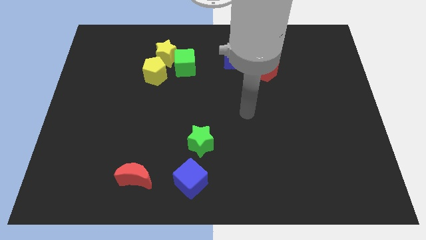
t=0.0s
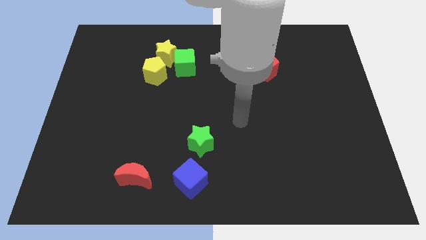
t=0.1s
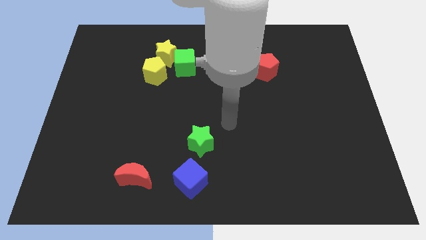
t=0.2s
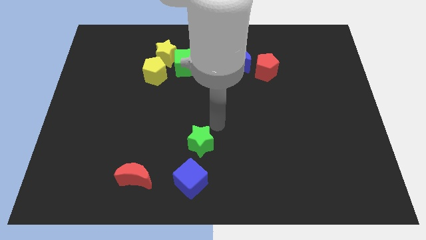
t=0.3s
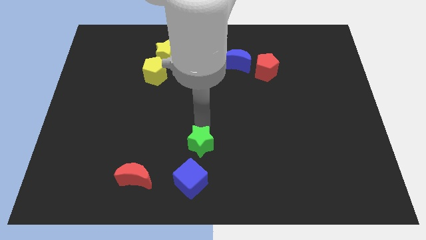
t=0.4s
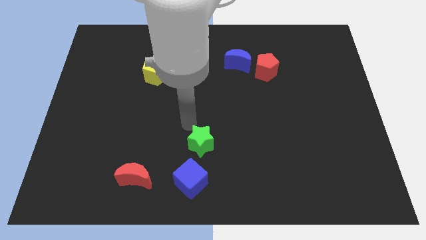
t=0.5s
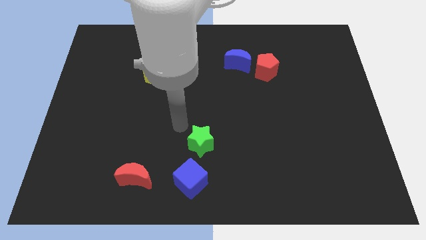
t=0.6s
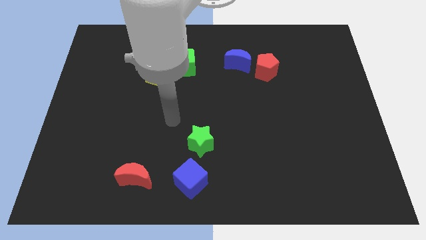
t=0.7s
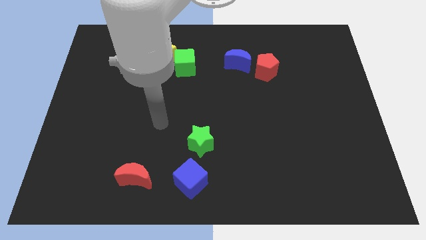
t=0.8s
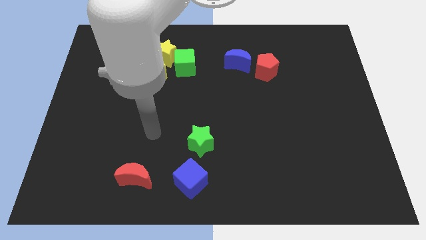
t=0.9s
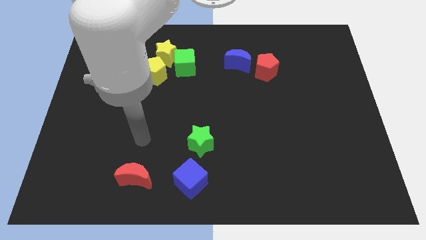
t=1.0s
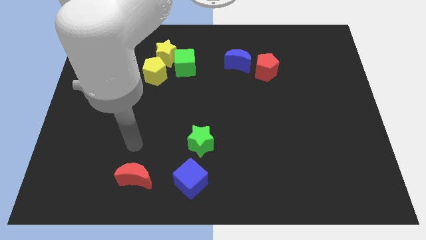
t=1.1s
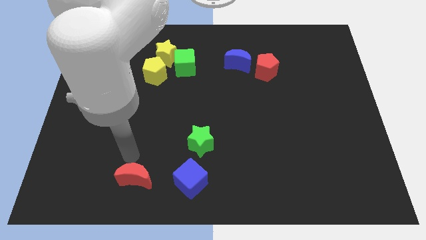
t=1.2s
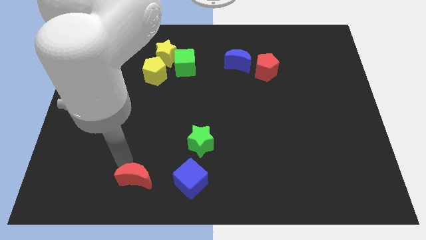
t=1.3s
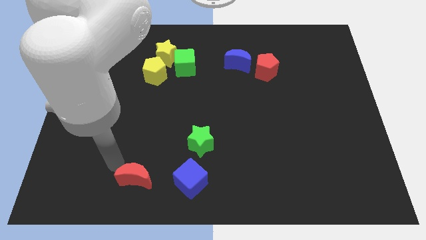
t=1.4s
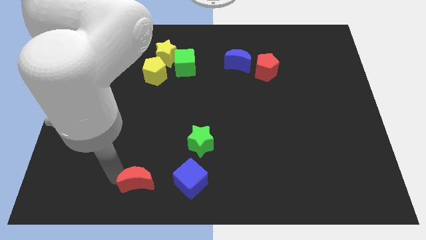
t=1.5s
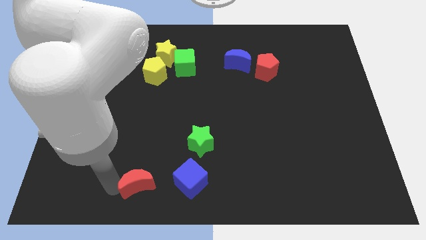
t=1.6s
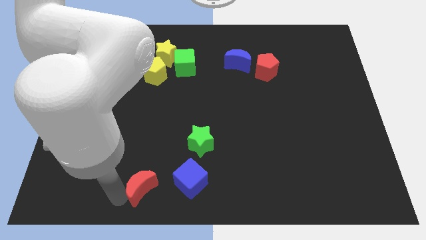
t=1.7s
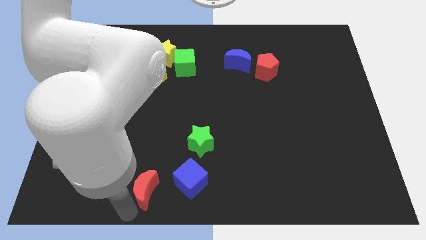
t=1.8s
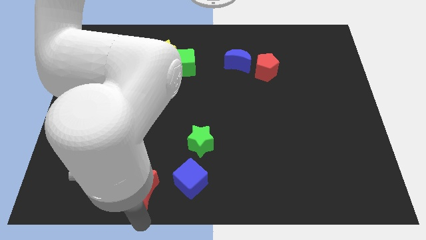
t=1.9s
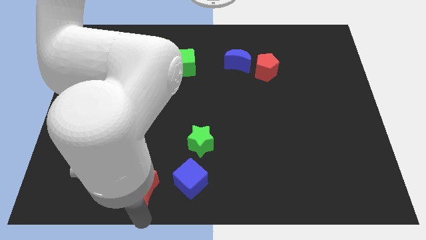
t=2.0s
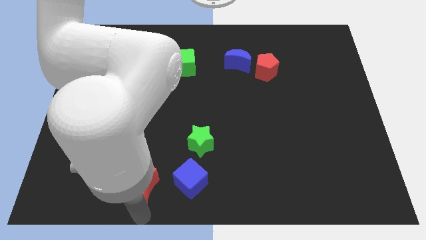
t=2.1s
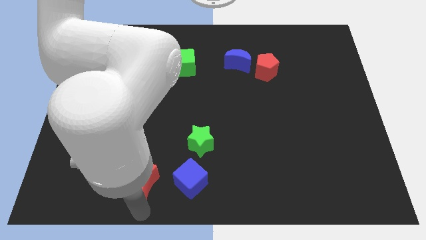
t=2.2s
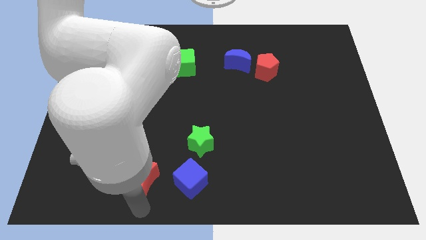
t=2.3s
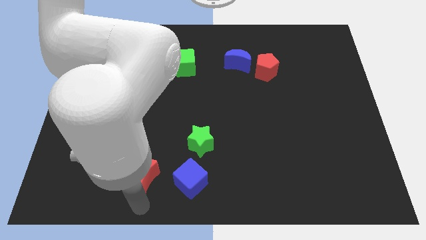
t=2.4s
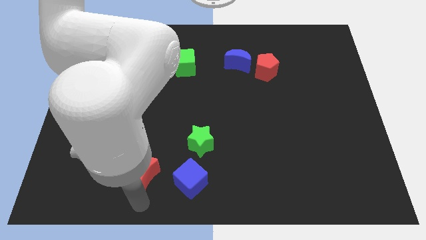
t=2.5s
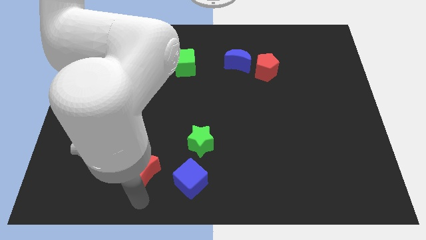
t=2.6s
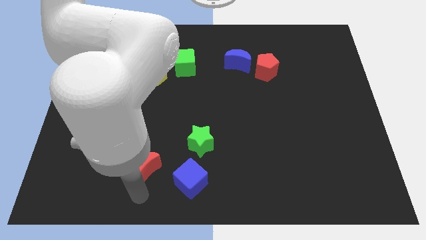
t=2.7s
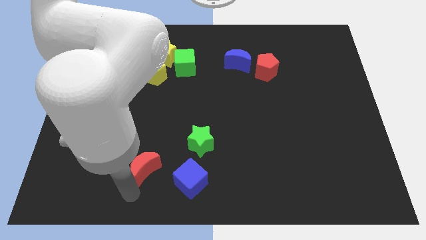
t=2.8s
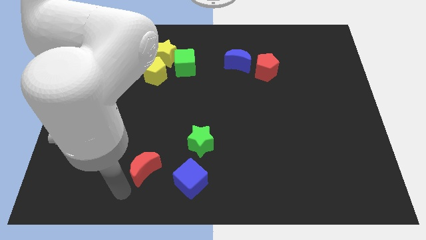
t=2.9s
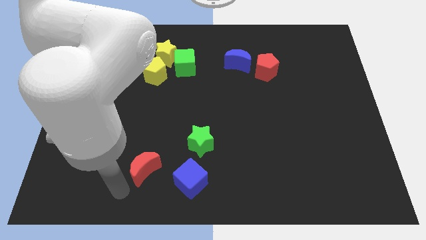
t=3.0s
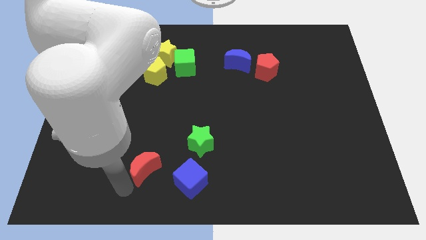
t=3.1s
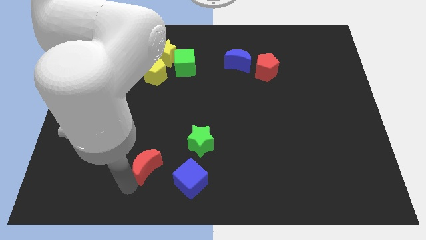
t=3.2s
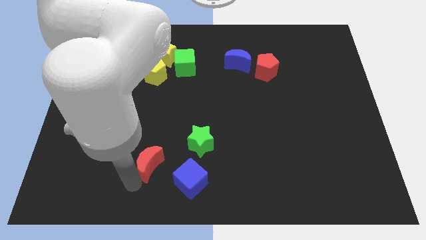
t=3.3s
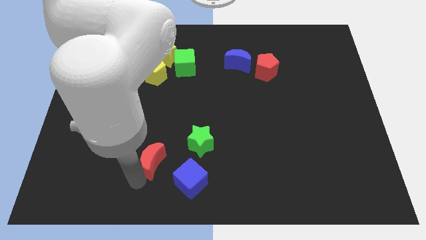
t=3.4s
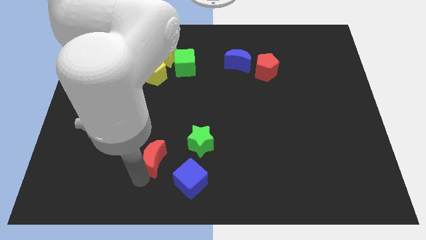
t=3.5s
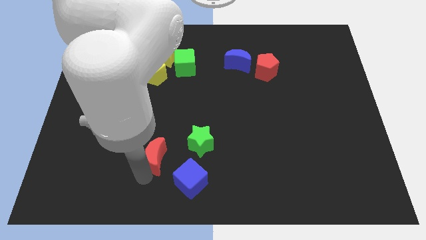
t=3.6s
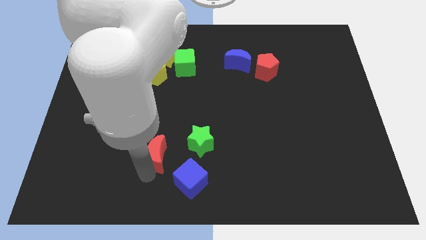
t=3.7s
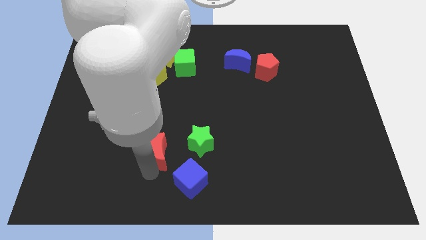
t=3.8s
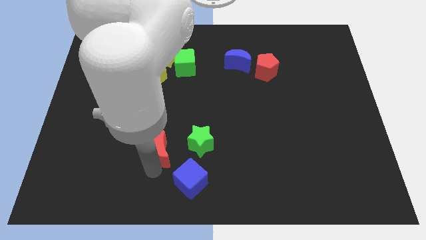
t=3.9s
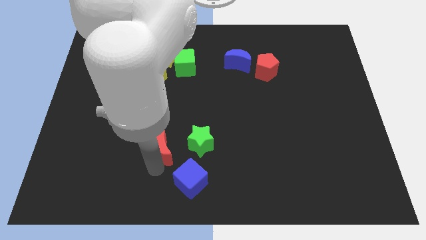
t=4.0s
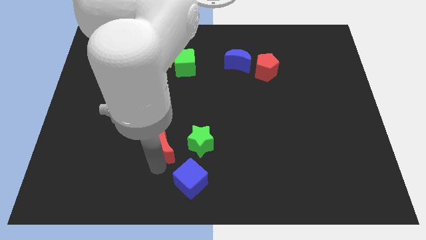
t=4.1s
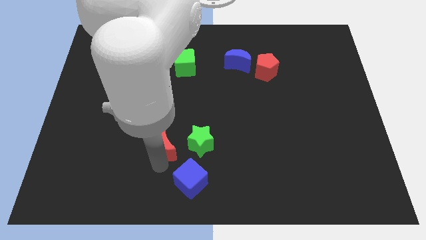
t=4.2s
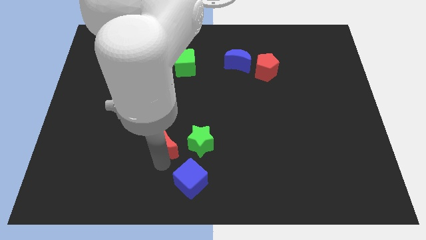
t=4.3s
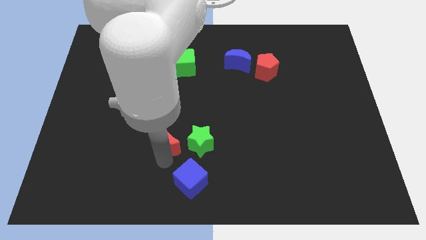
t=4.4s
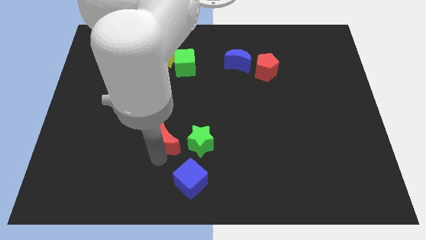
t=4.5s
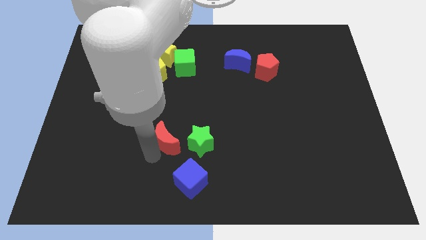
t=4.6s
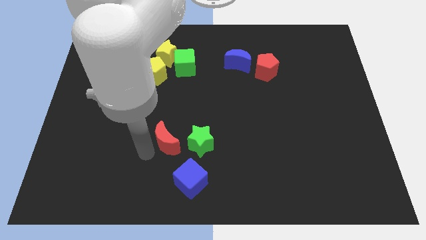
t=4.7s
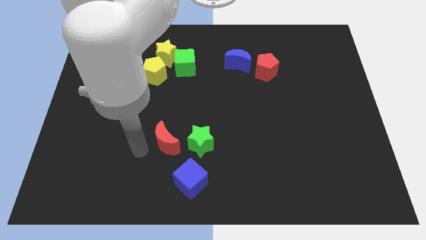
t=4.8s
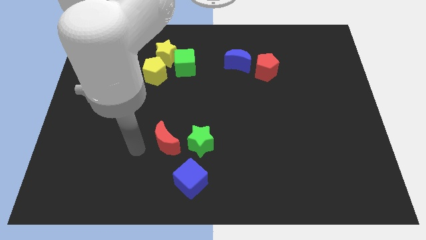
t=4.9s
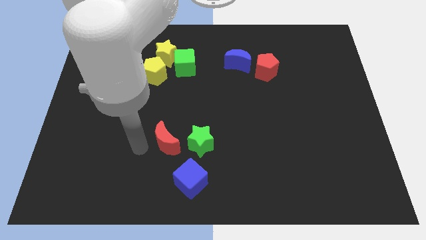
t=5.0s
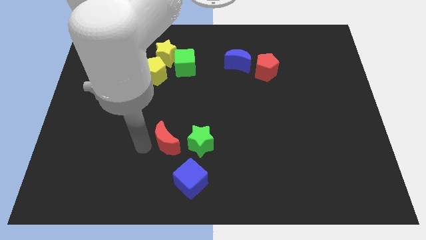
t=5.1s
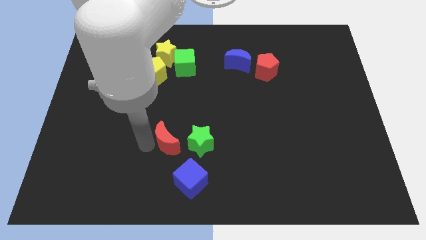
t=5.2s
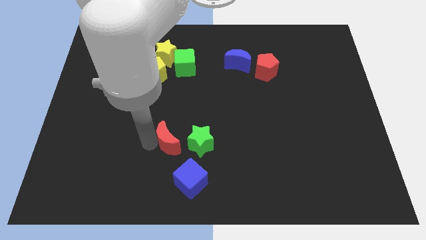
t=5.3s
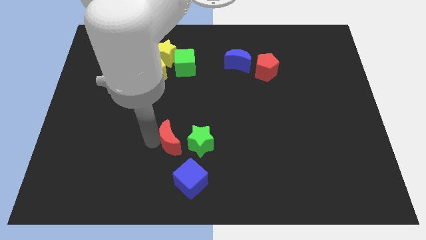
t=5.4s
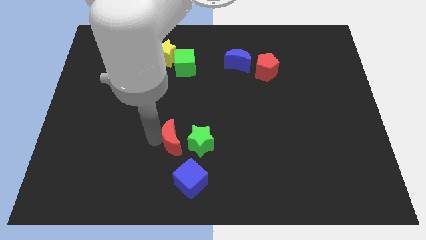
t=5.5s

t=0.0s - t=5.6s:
move the red moon to the top of the blue cube

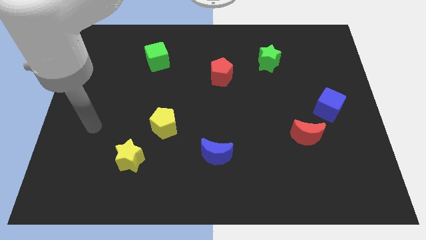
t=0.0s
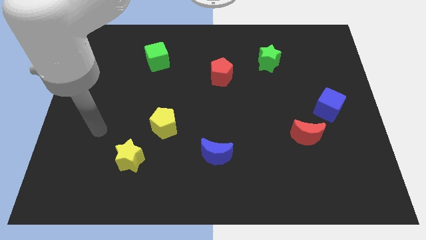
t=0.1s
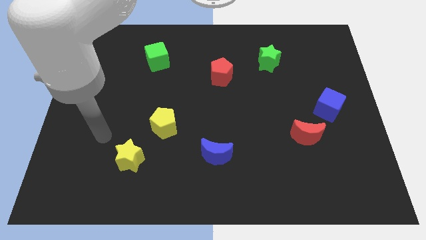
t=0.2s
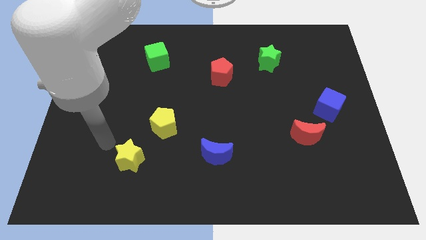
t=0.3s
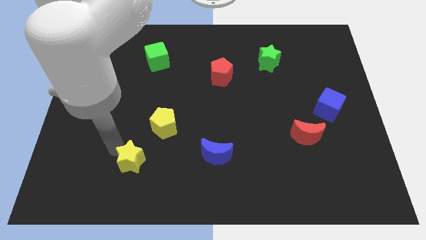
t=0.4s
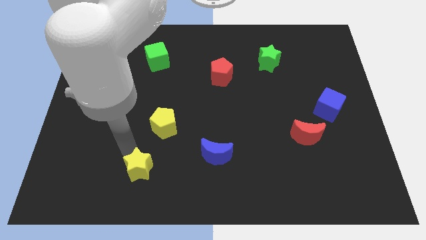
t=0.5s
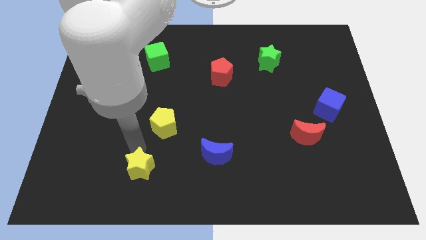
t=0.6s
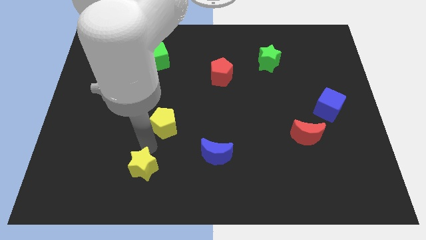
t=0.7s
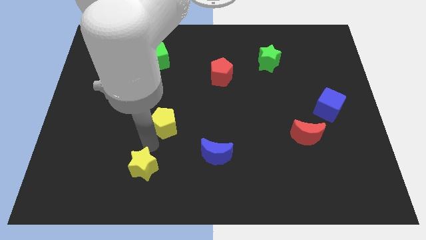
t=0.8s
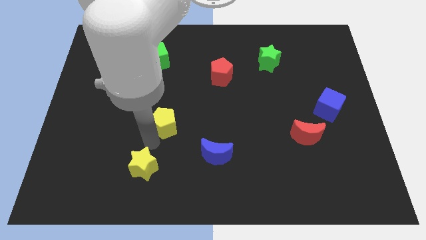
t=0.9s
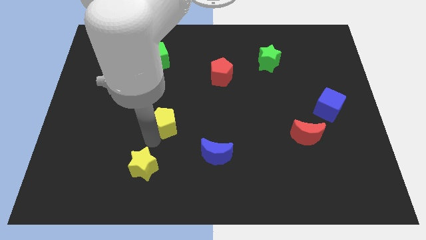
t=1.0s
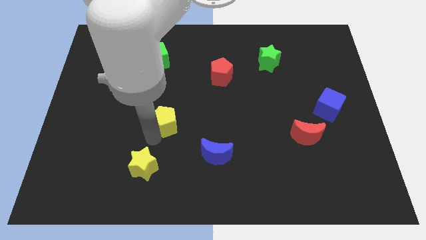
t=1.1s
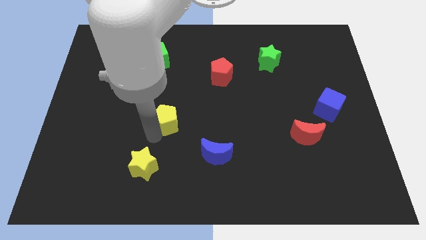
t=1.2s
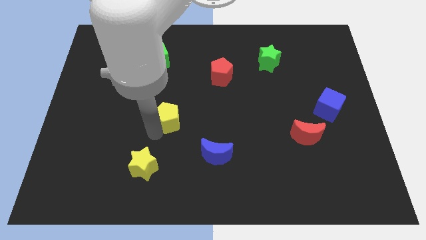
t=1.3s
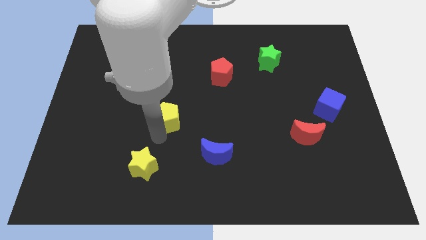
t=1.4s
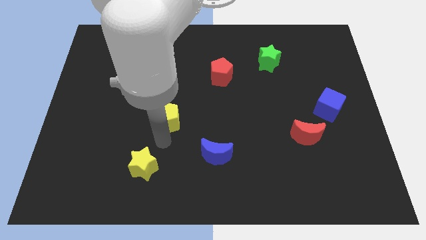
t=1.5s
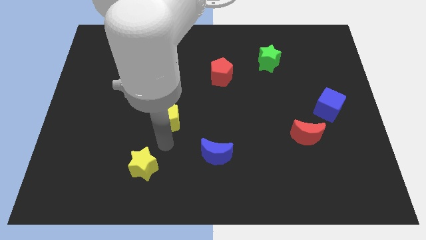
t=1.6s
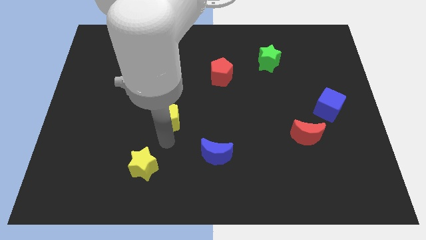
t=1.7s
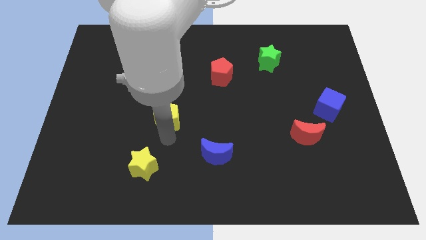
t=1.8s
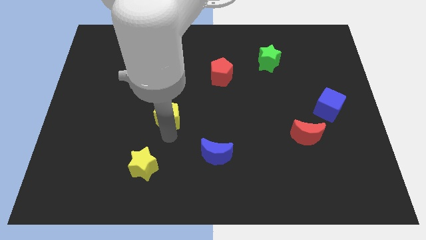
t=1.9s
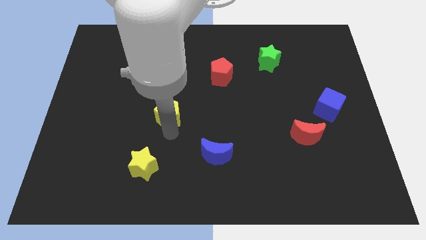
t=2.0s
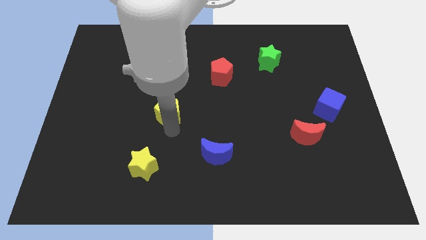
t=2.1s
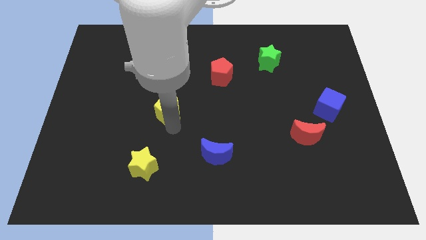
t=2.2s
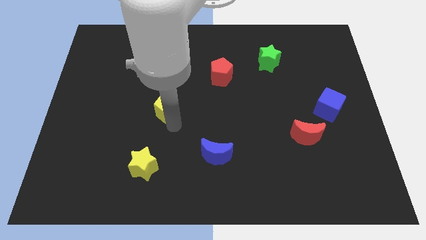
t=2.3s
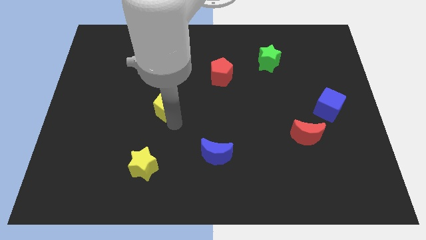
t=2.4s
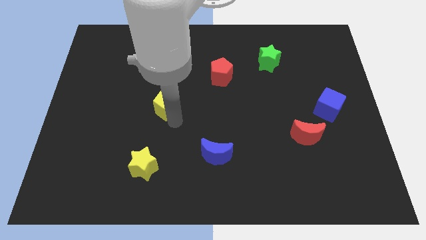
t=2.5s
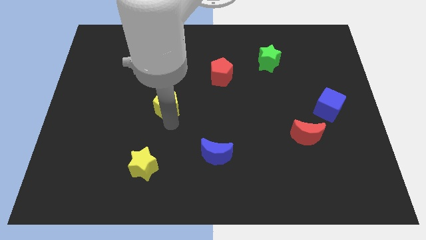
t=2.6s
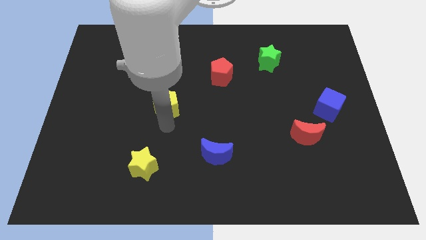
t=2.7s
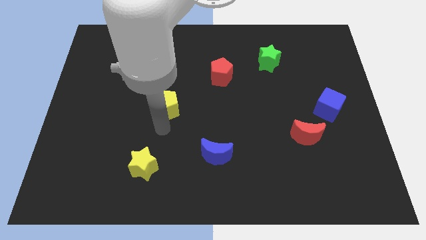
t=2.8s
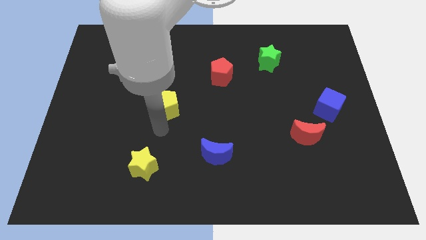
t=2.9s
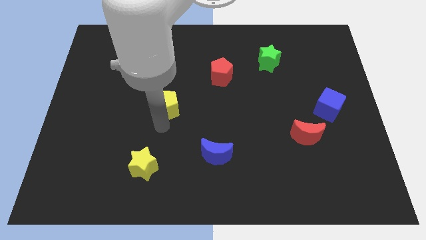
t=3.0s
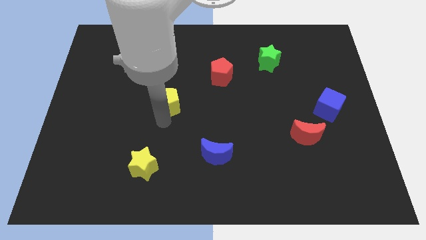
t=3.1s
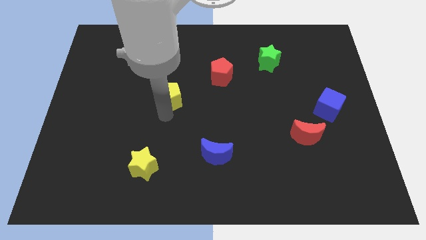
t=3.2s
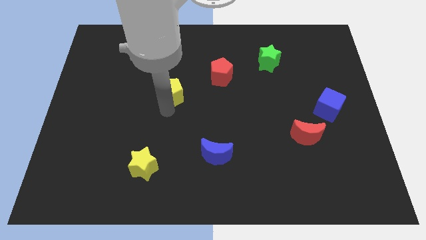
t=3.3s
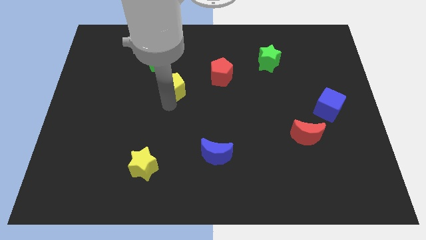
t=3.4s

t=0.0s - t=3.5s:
push the yellow pentagon diagonally down and to the right of the green cube
